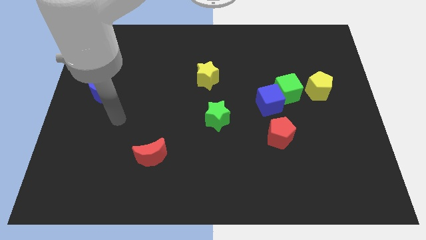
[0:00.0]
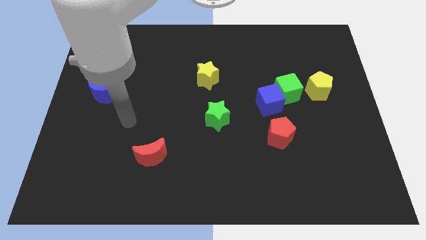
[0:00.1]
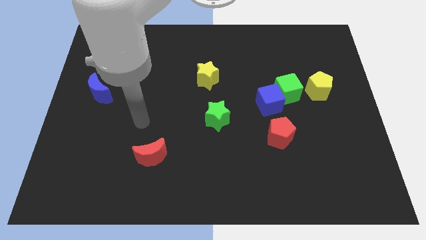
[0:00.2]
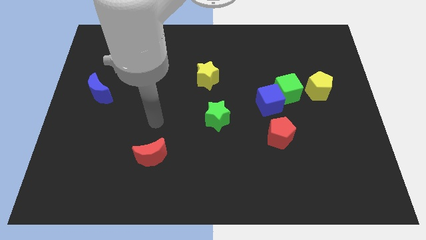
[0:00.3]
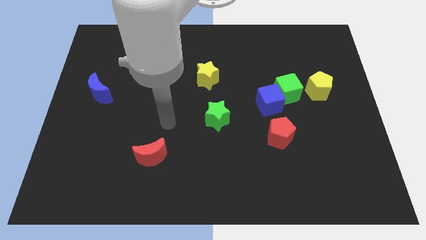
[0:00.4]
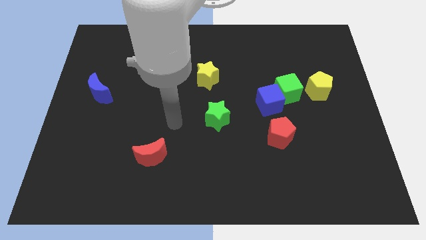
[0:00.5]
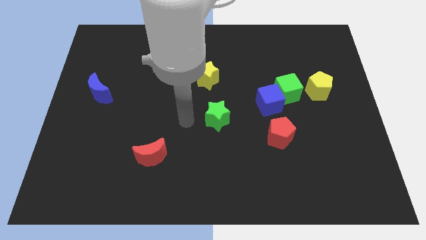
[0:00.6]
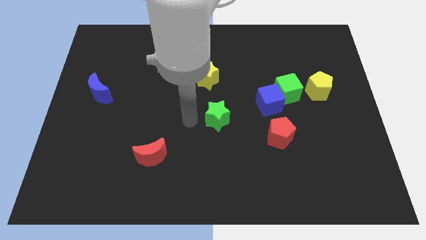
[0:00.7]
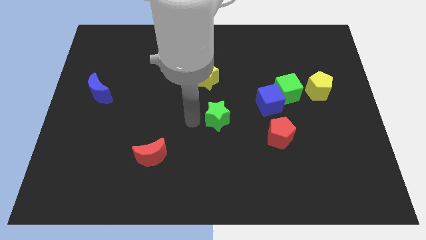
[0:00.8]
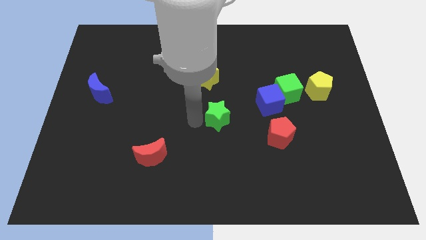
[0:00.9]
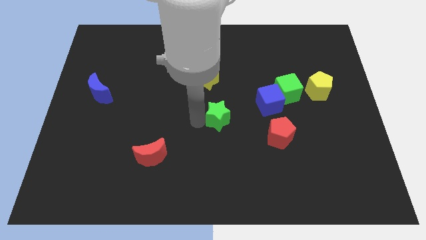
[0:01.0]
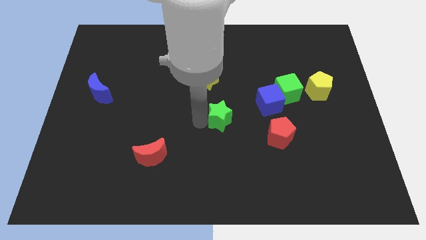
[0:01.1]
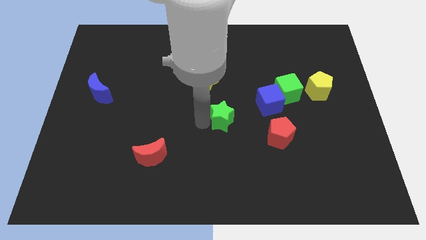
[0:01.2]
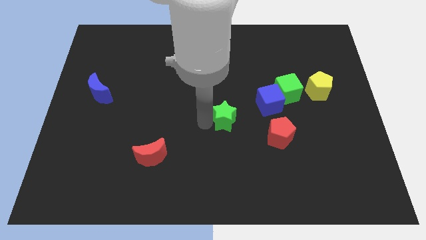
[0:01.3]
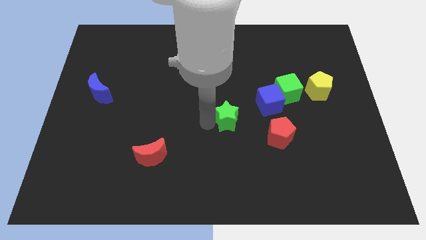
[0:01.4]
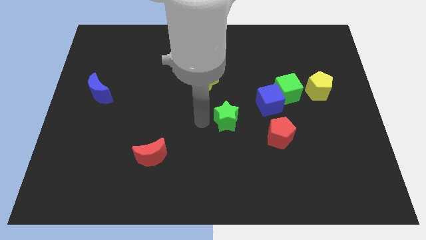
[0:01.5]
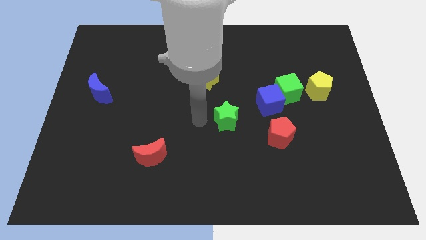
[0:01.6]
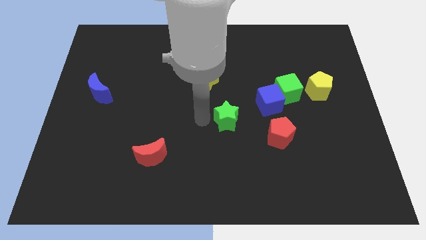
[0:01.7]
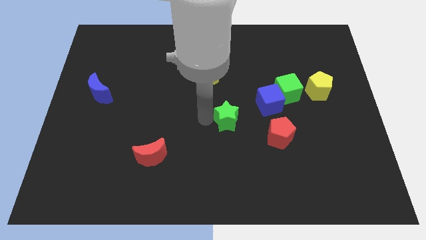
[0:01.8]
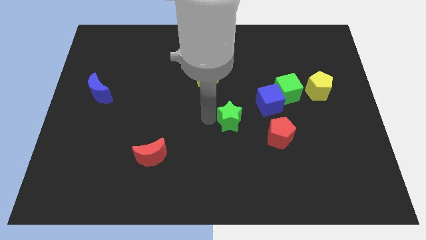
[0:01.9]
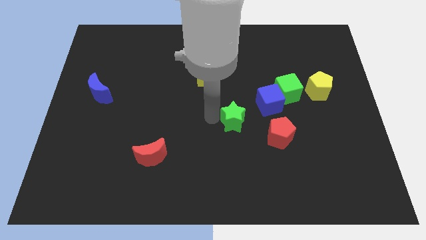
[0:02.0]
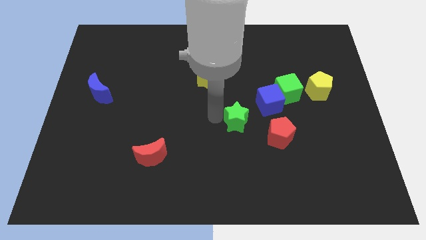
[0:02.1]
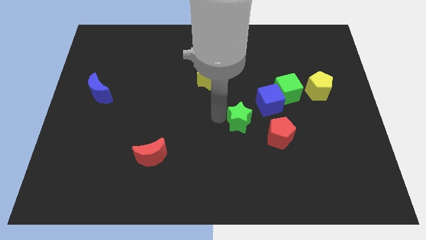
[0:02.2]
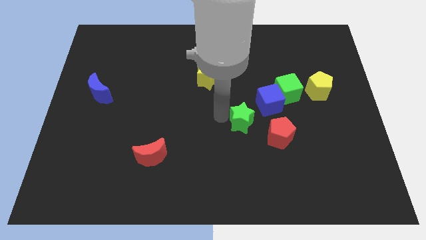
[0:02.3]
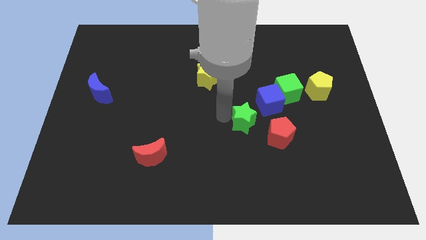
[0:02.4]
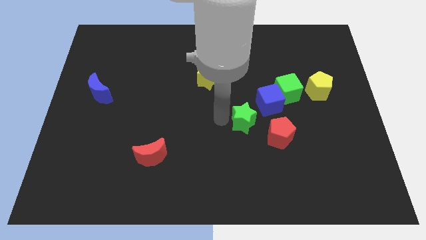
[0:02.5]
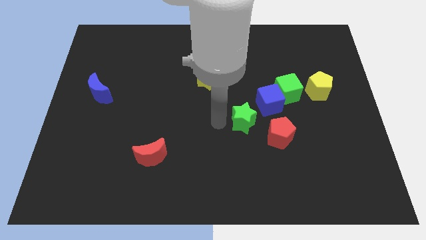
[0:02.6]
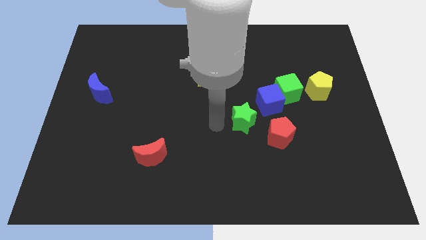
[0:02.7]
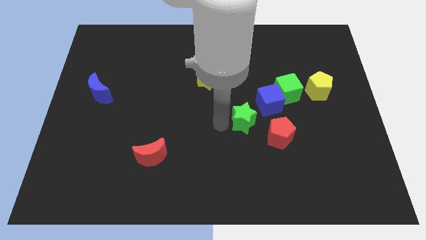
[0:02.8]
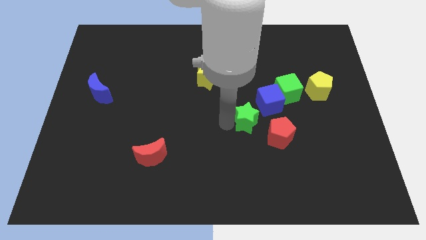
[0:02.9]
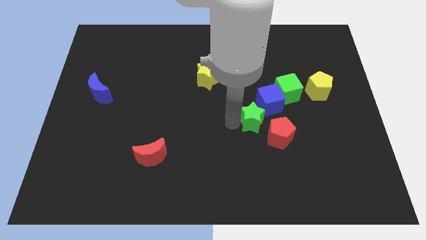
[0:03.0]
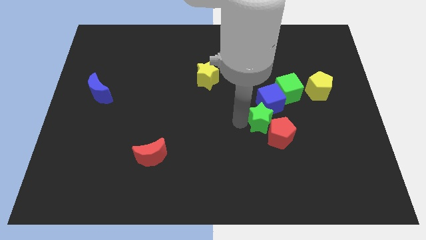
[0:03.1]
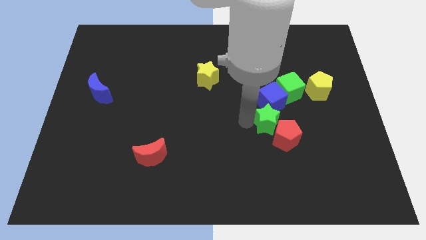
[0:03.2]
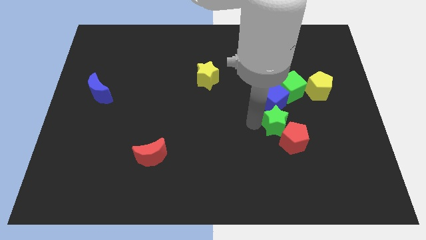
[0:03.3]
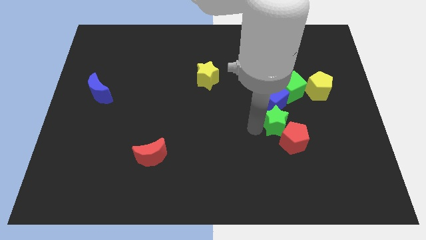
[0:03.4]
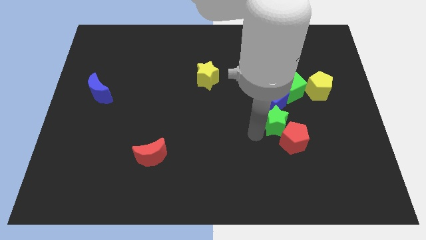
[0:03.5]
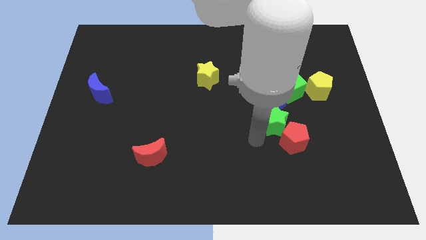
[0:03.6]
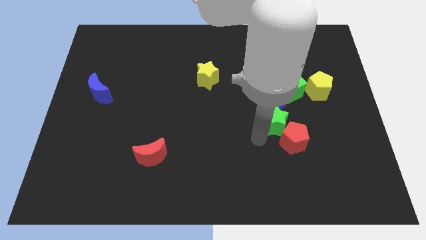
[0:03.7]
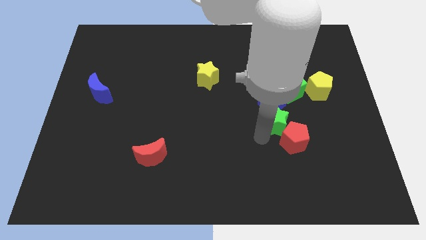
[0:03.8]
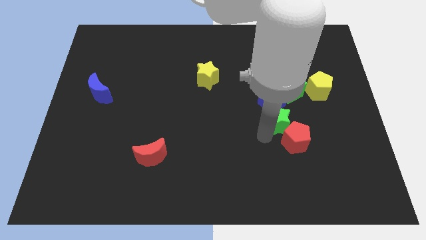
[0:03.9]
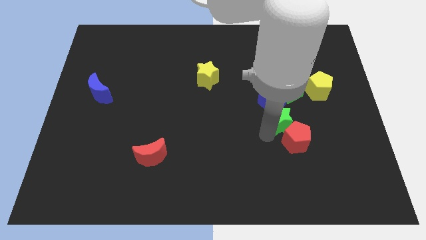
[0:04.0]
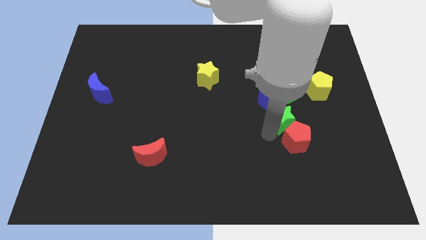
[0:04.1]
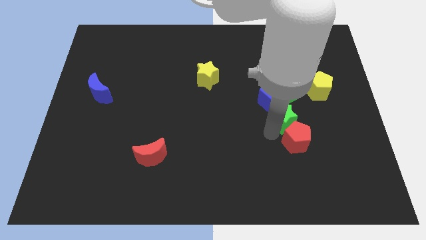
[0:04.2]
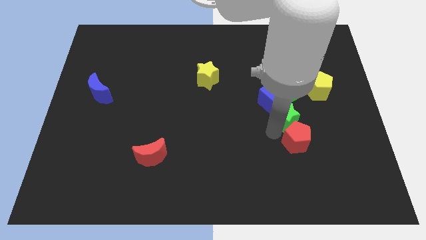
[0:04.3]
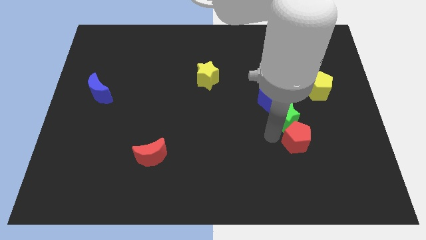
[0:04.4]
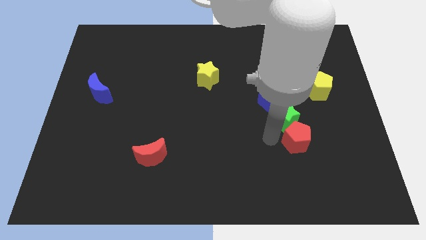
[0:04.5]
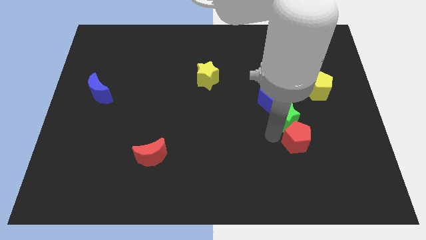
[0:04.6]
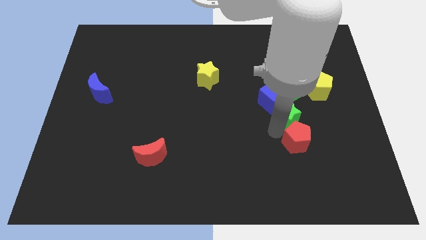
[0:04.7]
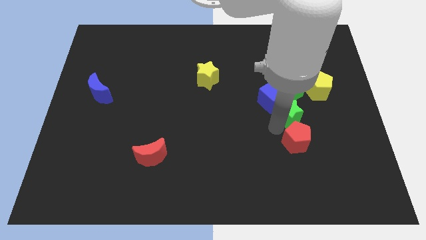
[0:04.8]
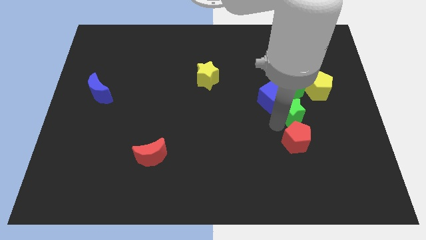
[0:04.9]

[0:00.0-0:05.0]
put the green star right of the blue cube

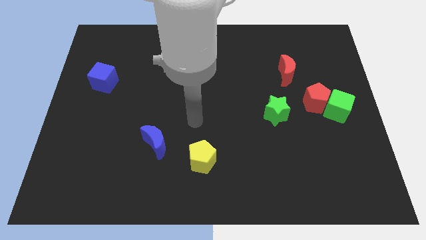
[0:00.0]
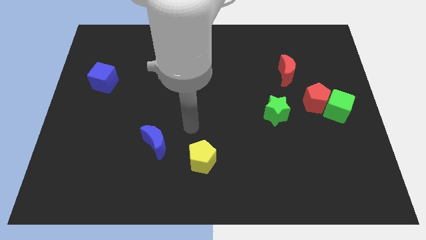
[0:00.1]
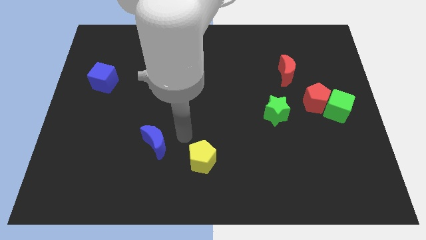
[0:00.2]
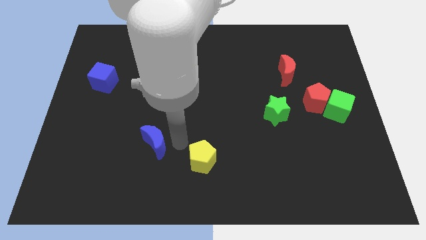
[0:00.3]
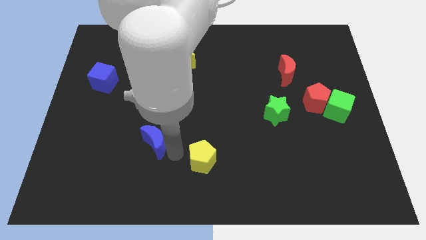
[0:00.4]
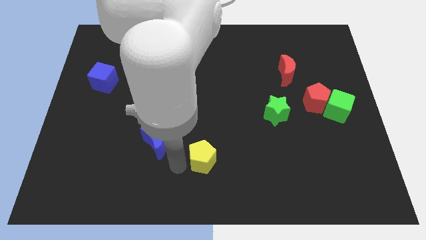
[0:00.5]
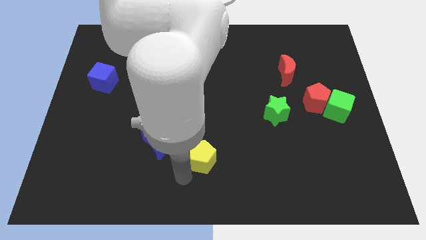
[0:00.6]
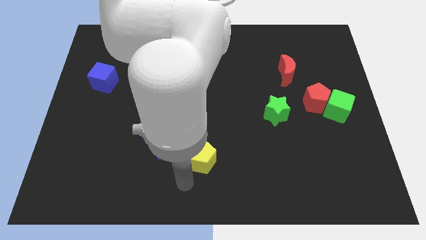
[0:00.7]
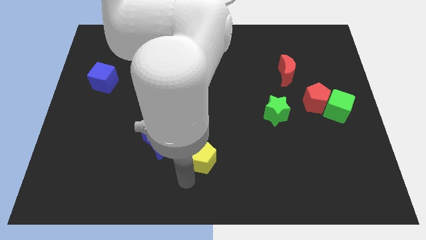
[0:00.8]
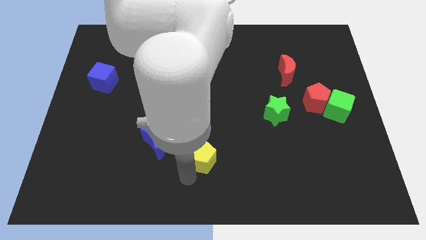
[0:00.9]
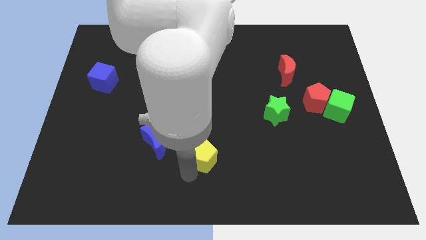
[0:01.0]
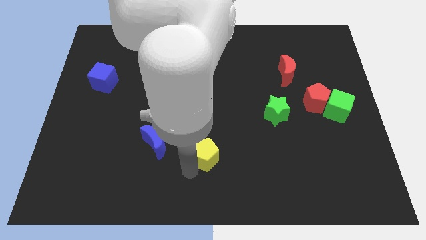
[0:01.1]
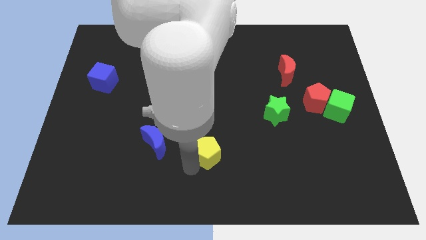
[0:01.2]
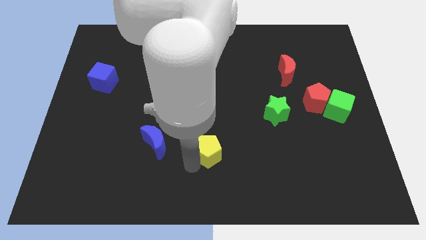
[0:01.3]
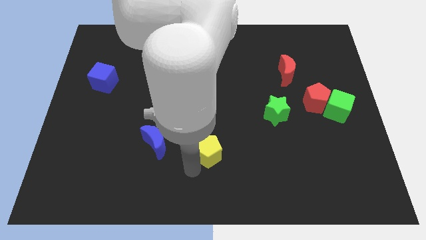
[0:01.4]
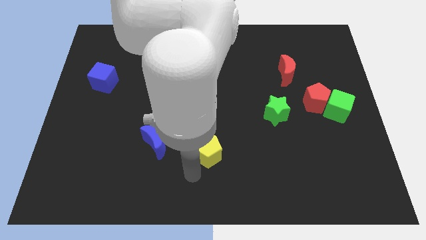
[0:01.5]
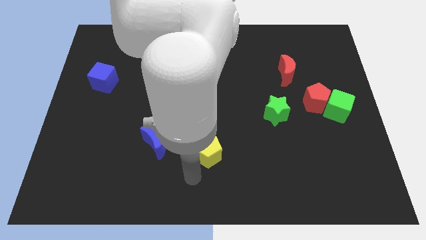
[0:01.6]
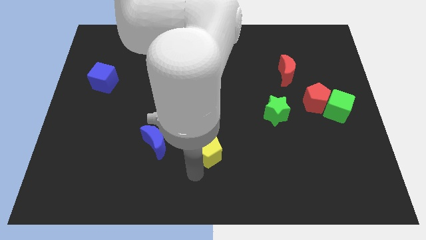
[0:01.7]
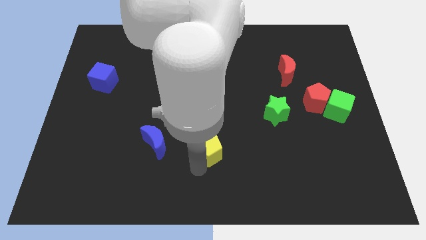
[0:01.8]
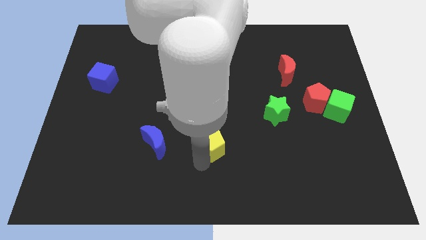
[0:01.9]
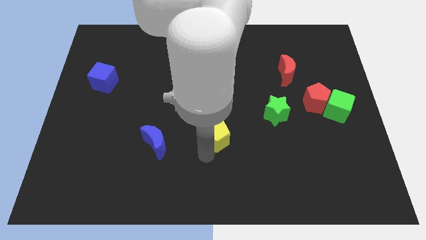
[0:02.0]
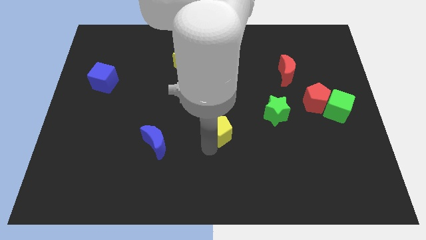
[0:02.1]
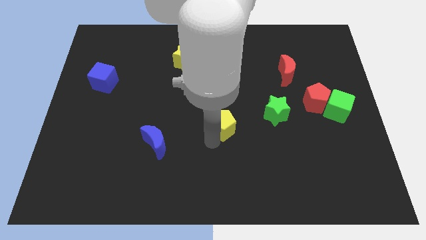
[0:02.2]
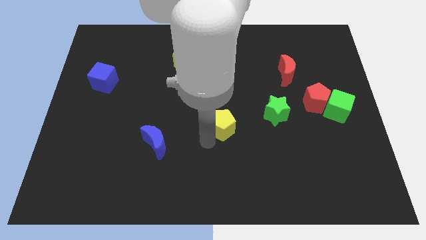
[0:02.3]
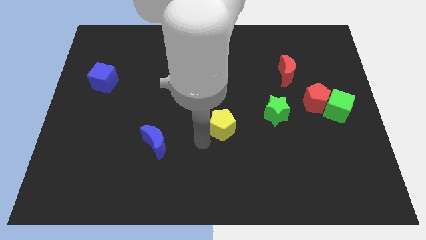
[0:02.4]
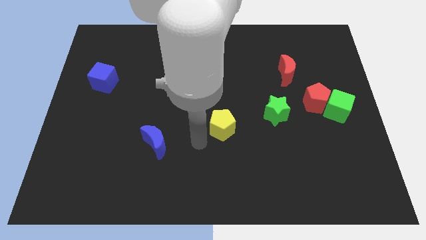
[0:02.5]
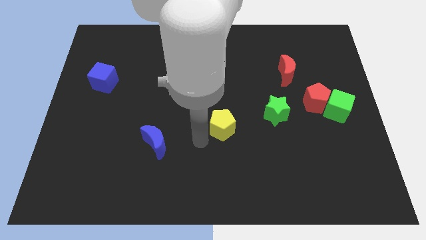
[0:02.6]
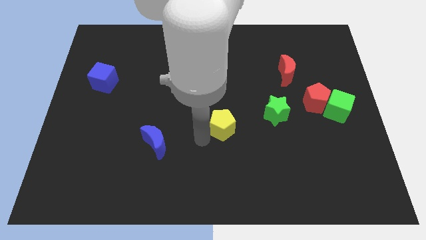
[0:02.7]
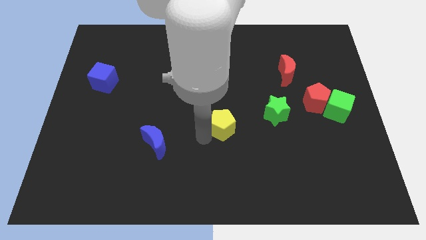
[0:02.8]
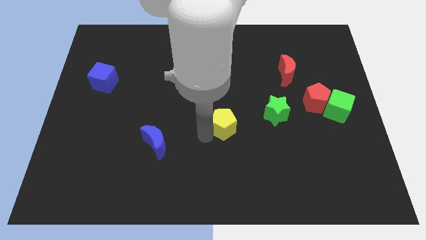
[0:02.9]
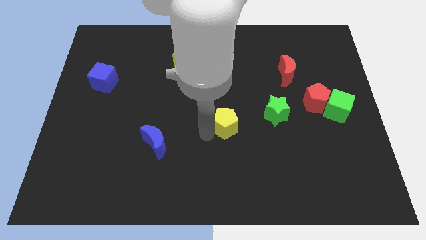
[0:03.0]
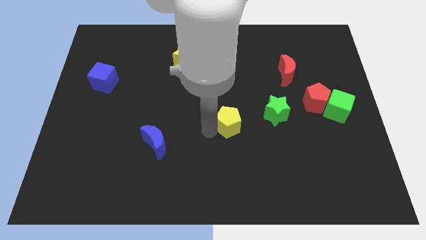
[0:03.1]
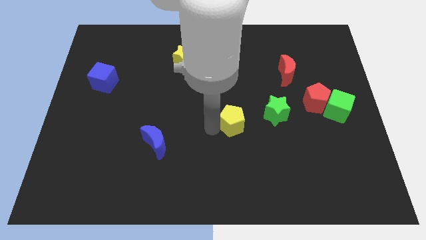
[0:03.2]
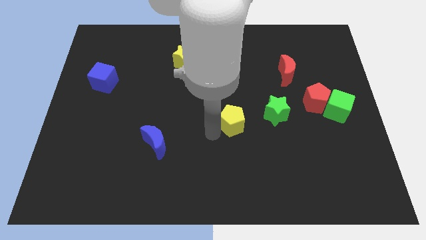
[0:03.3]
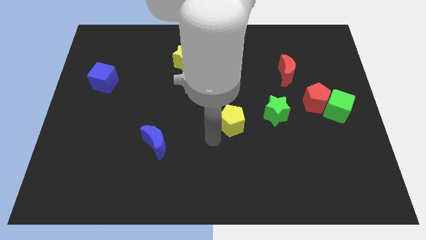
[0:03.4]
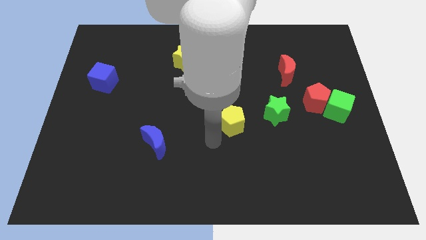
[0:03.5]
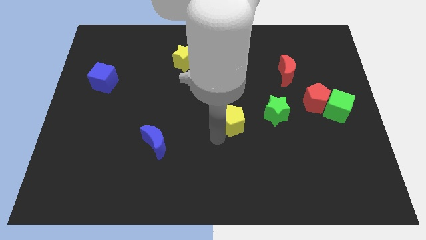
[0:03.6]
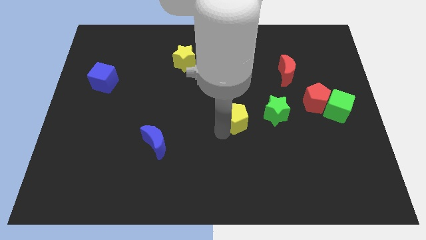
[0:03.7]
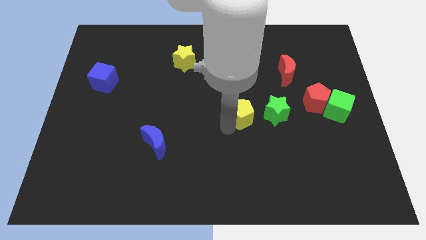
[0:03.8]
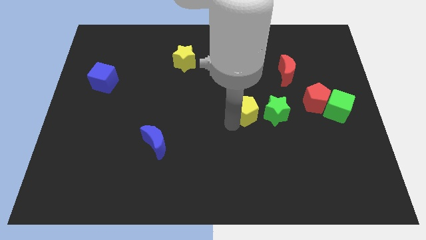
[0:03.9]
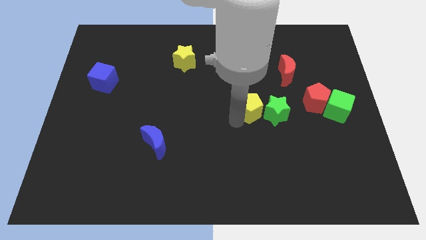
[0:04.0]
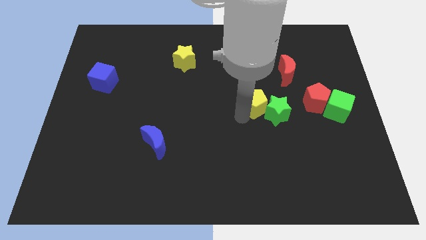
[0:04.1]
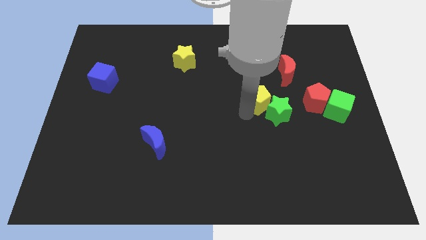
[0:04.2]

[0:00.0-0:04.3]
slide the yellow pentagon above the green star
